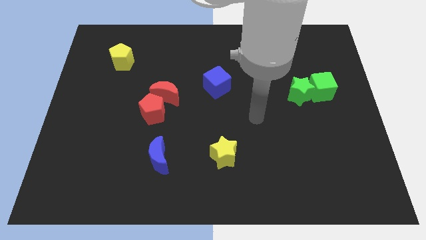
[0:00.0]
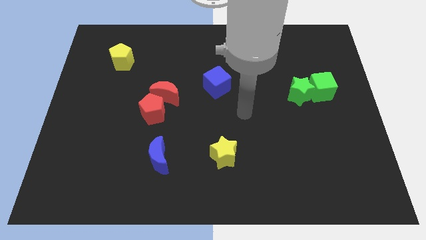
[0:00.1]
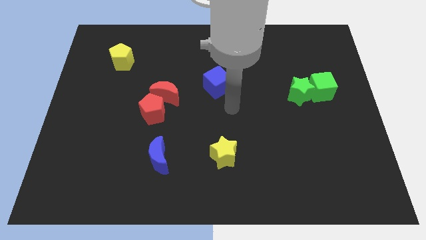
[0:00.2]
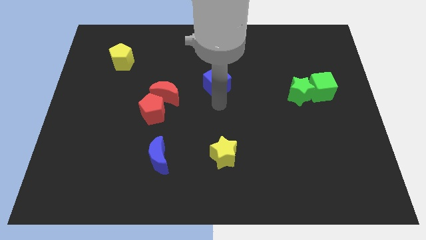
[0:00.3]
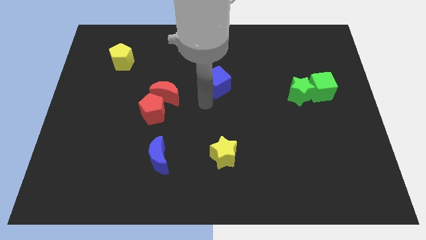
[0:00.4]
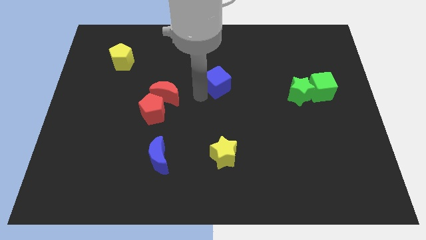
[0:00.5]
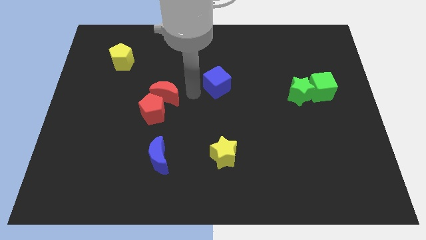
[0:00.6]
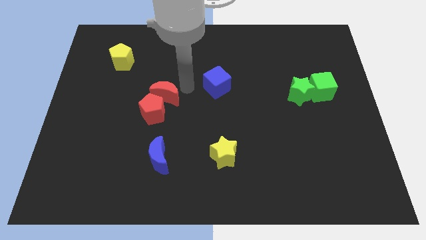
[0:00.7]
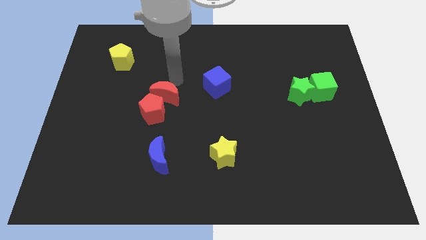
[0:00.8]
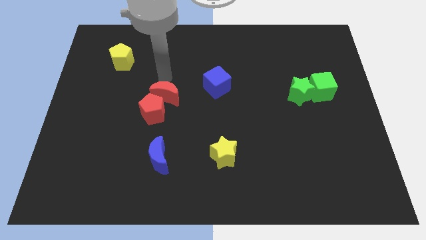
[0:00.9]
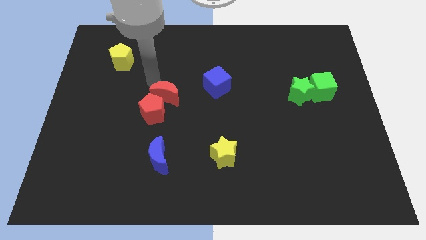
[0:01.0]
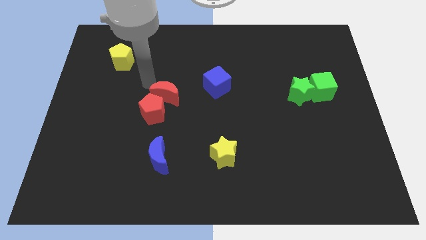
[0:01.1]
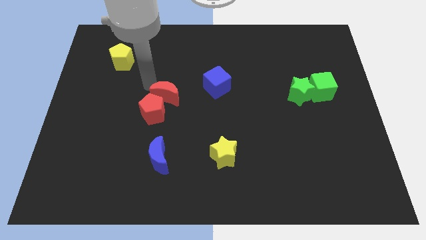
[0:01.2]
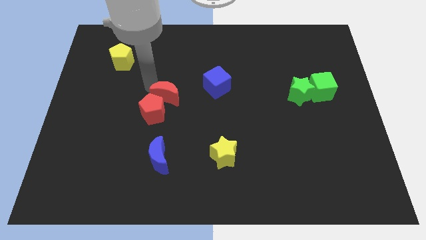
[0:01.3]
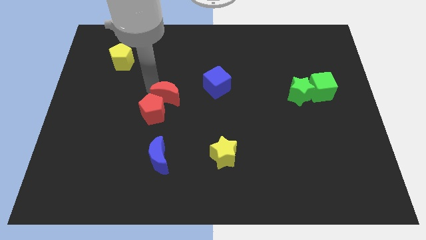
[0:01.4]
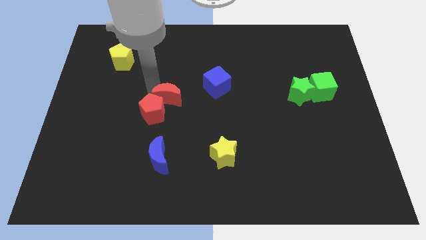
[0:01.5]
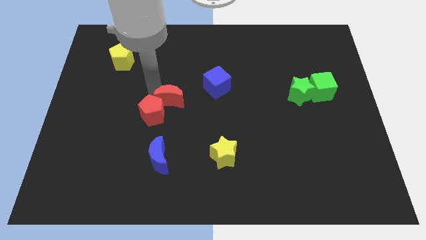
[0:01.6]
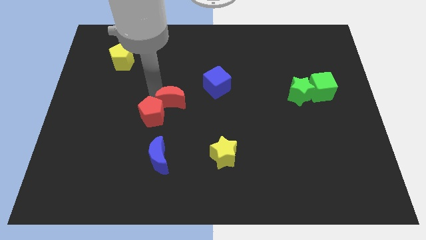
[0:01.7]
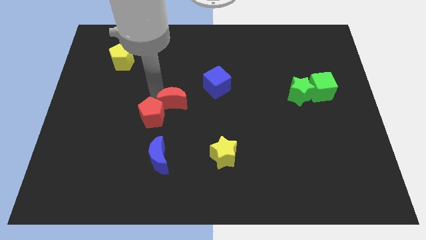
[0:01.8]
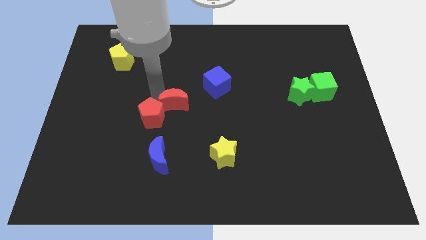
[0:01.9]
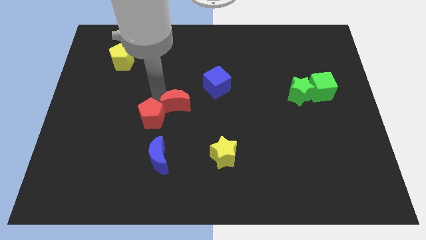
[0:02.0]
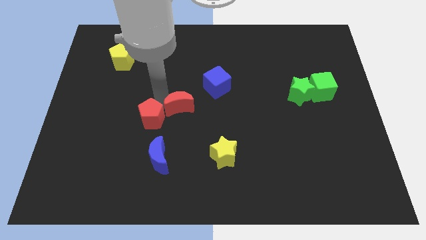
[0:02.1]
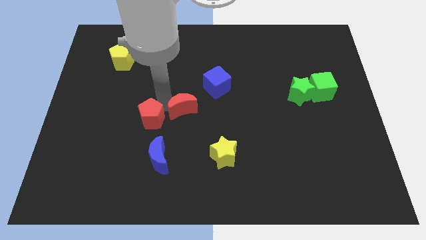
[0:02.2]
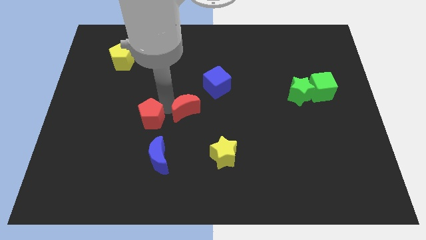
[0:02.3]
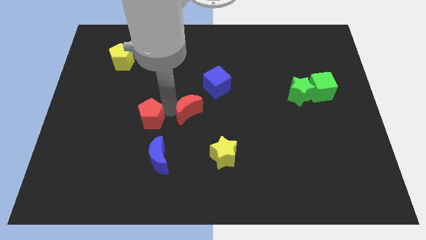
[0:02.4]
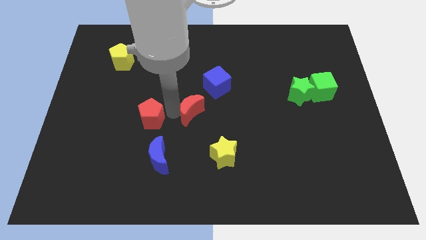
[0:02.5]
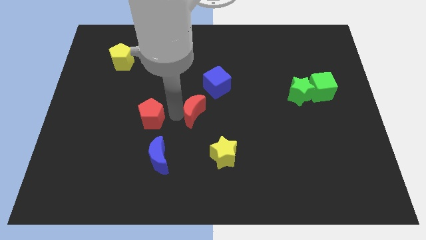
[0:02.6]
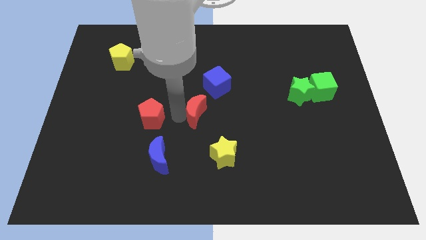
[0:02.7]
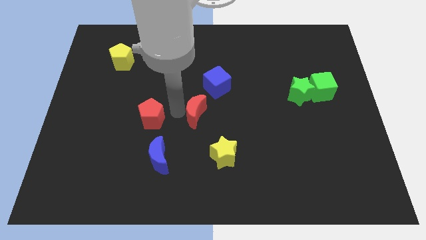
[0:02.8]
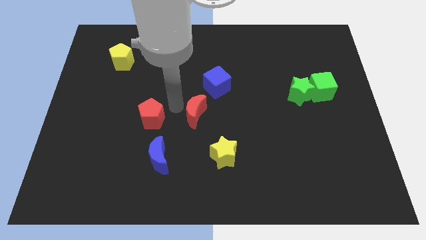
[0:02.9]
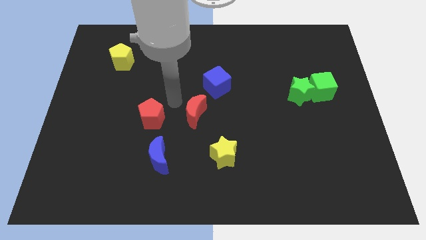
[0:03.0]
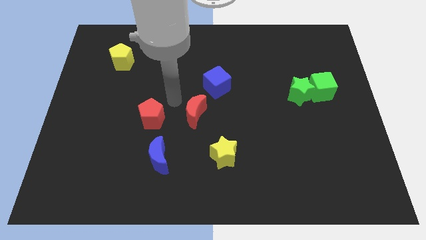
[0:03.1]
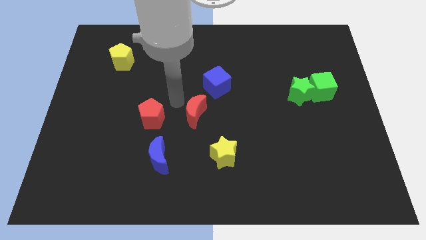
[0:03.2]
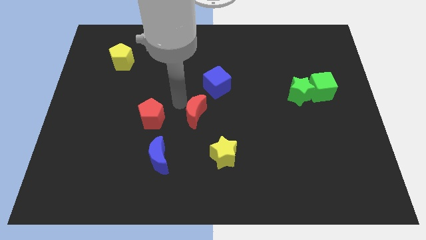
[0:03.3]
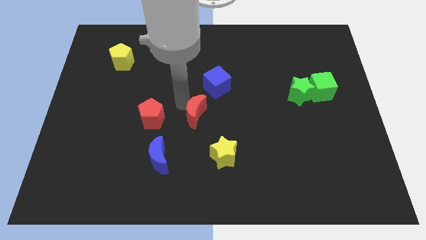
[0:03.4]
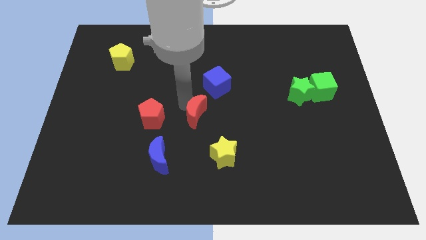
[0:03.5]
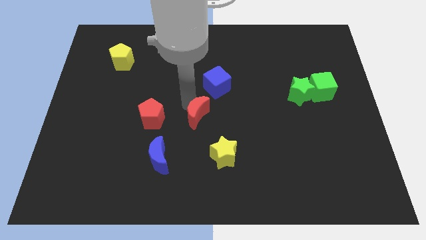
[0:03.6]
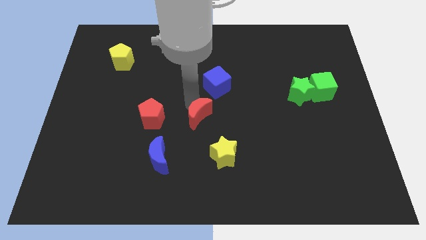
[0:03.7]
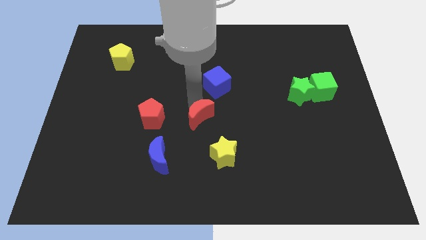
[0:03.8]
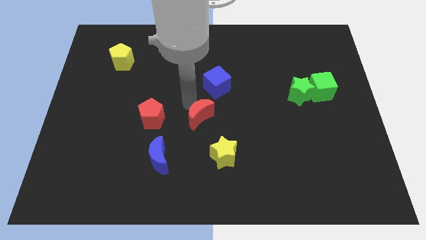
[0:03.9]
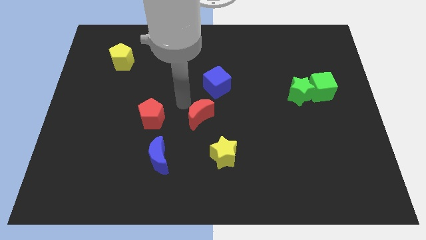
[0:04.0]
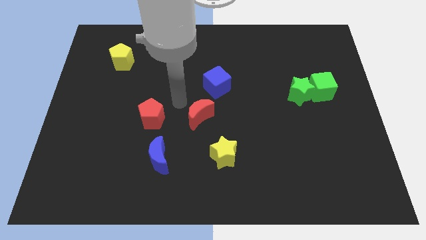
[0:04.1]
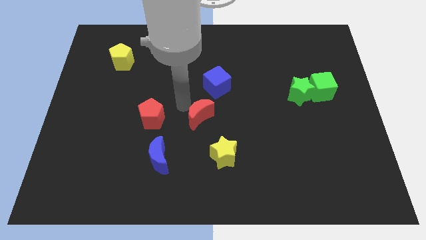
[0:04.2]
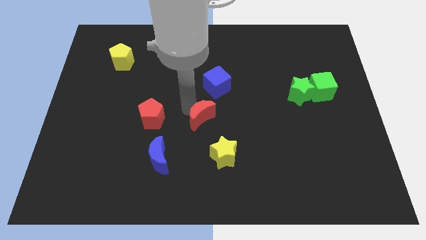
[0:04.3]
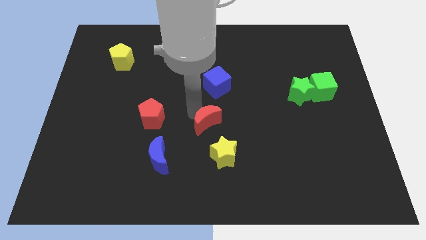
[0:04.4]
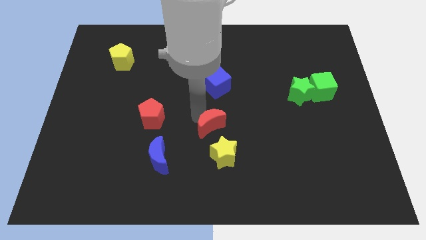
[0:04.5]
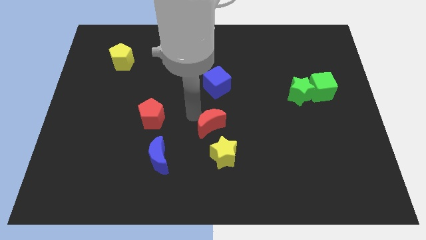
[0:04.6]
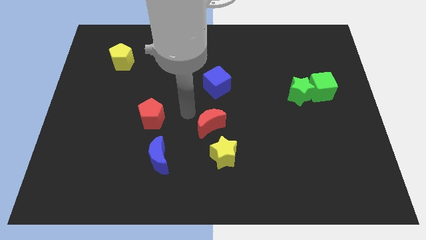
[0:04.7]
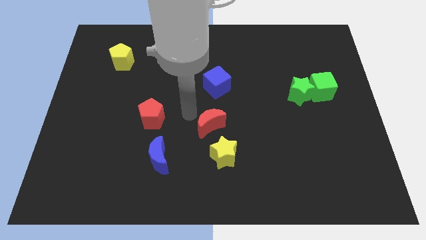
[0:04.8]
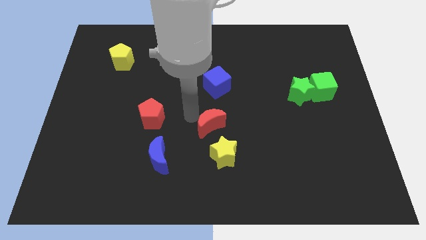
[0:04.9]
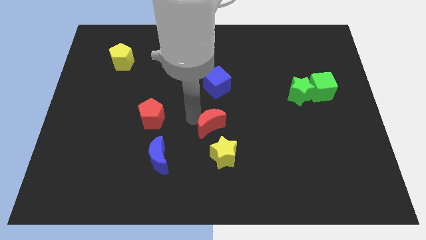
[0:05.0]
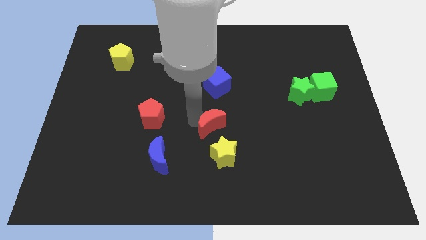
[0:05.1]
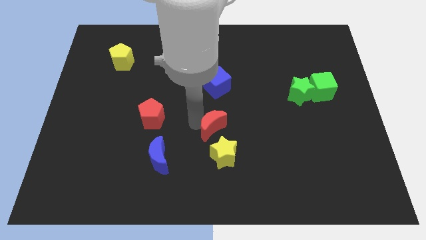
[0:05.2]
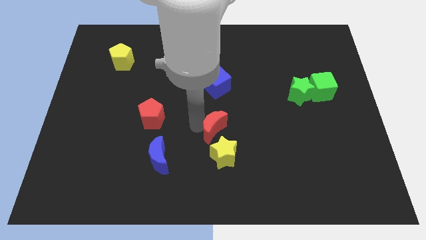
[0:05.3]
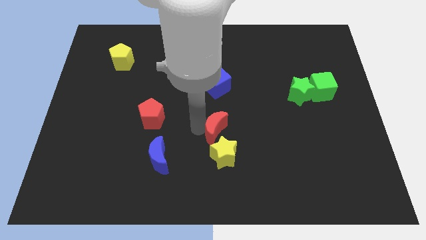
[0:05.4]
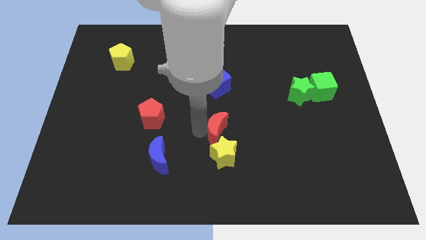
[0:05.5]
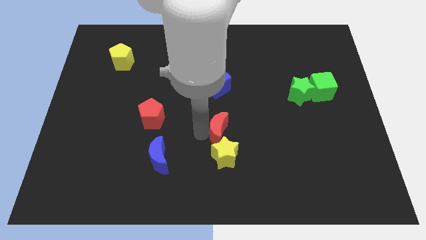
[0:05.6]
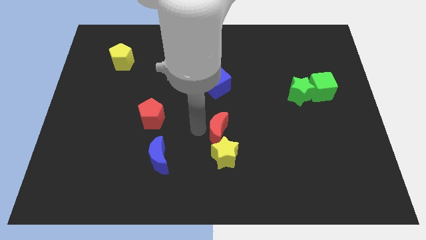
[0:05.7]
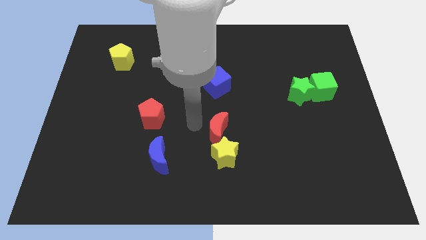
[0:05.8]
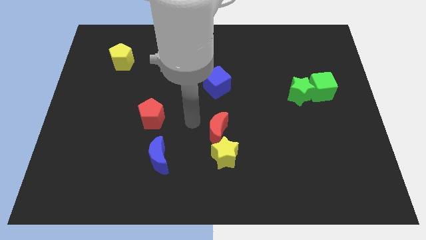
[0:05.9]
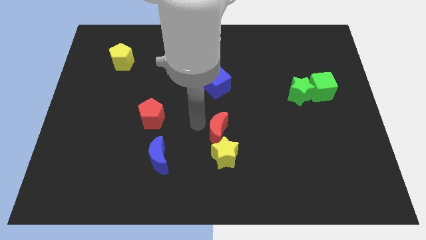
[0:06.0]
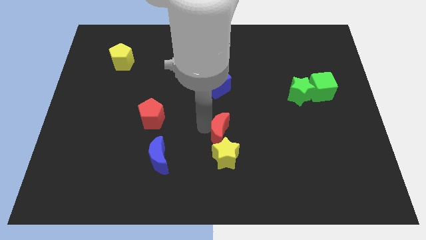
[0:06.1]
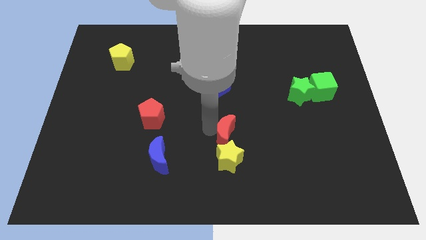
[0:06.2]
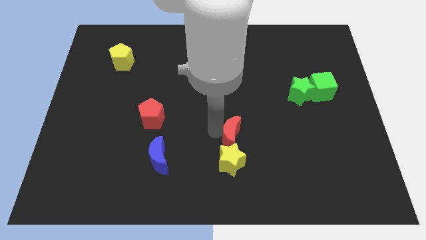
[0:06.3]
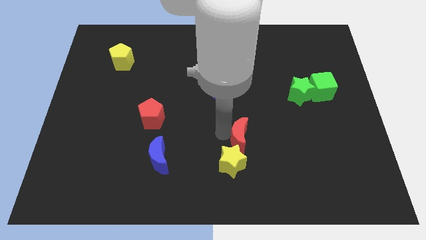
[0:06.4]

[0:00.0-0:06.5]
push the red moon downwards and then to the right

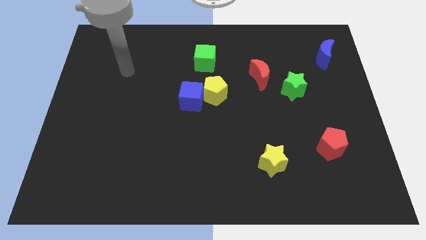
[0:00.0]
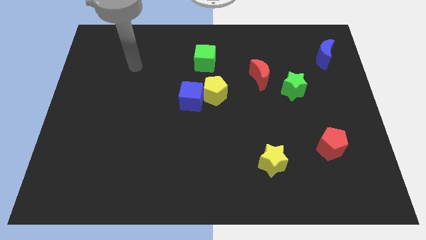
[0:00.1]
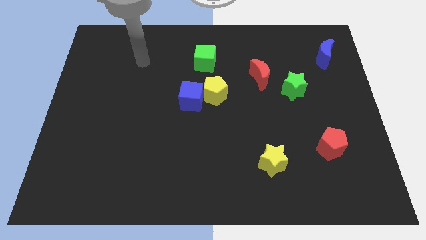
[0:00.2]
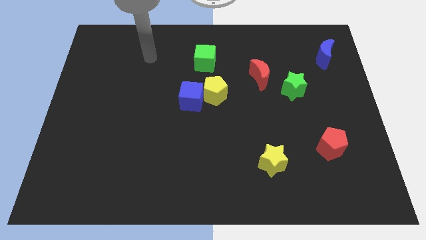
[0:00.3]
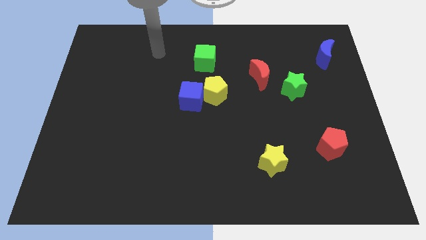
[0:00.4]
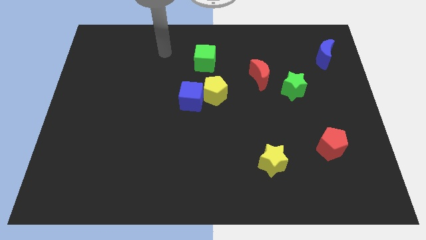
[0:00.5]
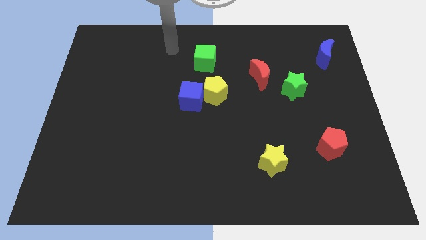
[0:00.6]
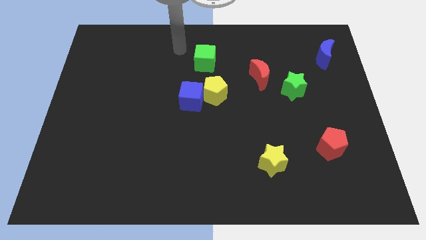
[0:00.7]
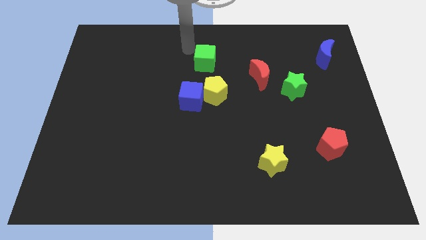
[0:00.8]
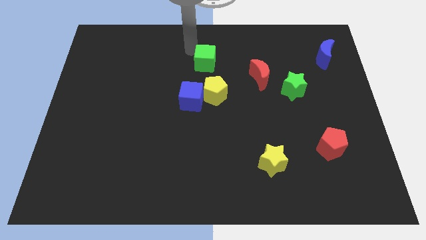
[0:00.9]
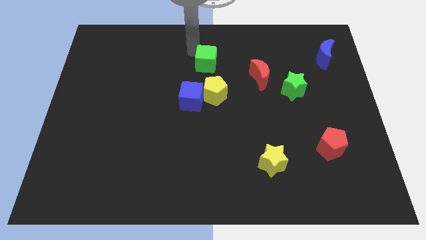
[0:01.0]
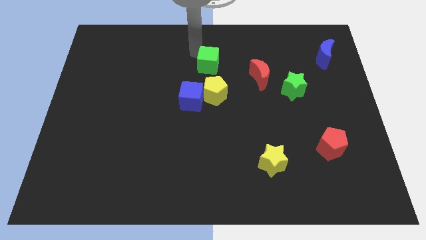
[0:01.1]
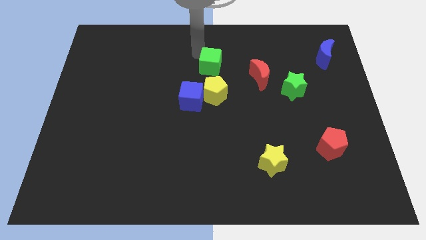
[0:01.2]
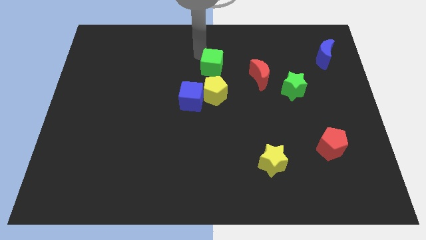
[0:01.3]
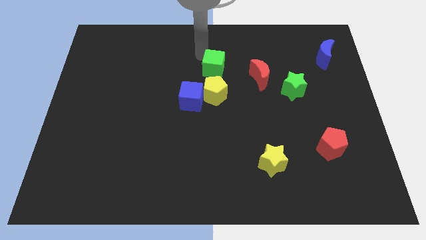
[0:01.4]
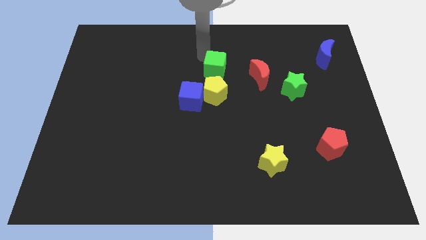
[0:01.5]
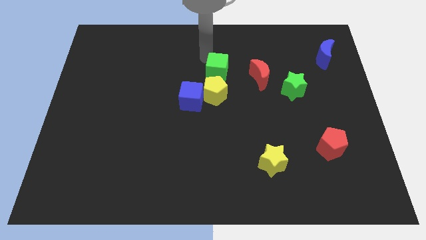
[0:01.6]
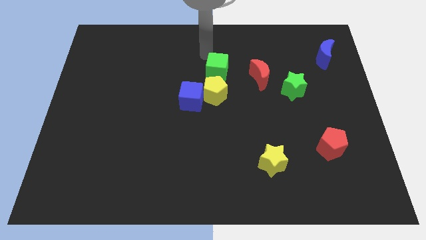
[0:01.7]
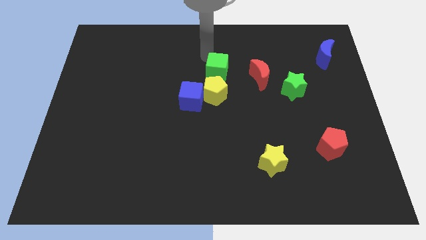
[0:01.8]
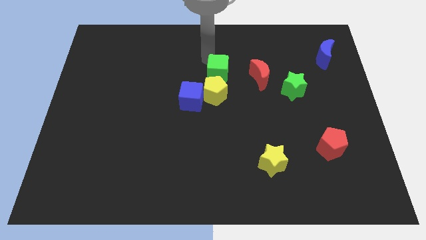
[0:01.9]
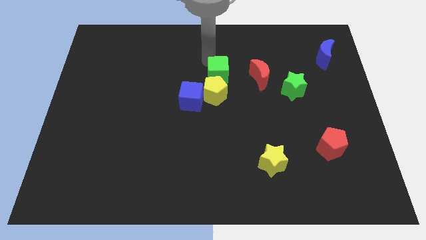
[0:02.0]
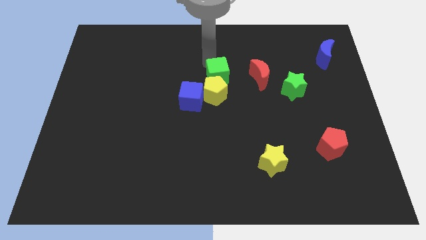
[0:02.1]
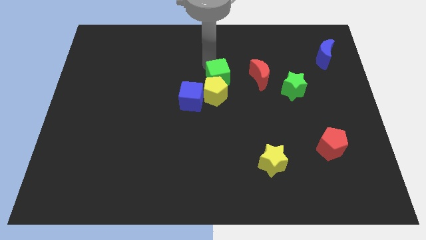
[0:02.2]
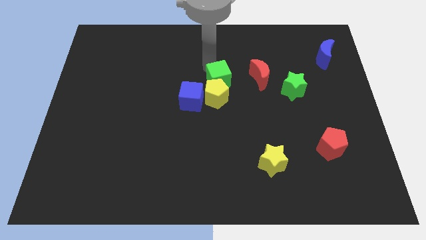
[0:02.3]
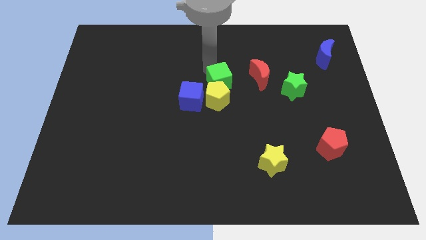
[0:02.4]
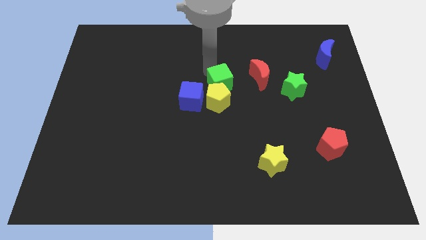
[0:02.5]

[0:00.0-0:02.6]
slightly push the green cube down
